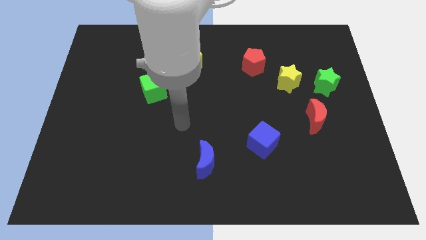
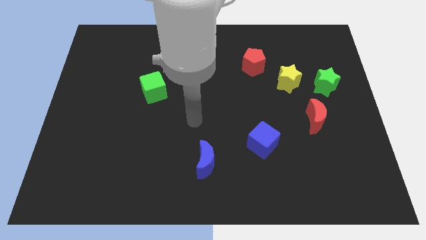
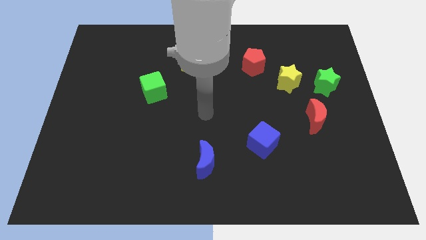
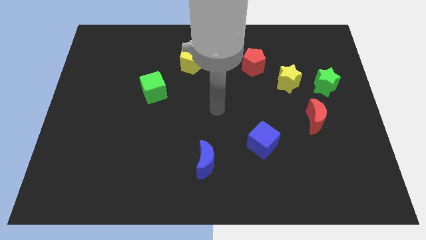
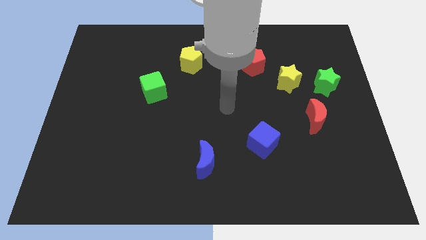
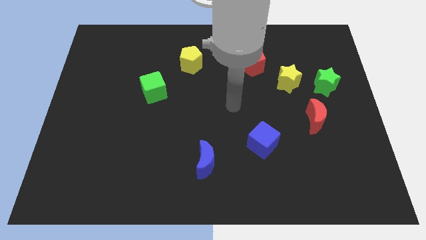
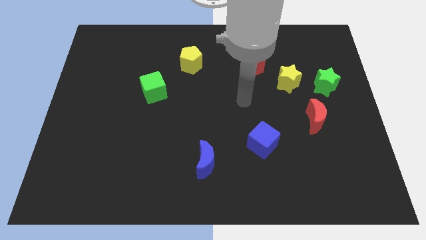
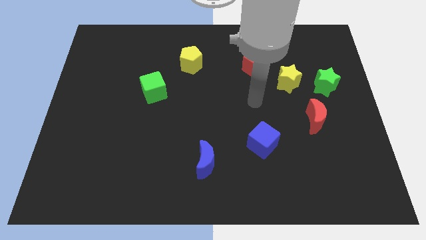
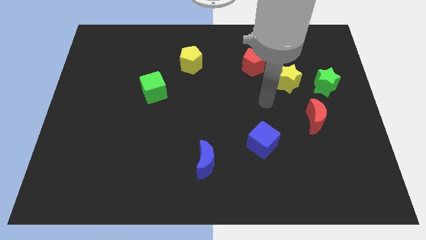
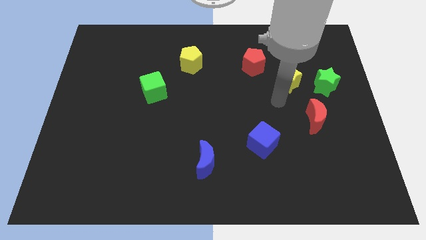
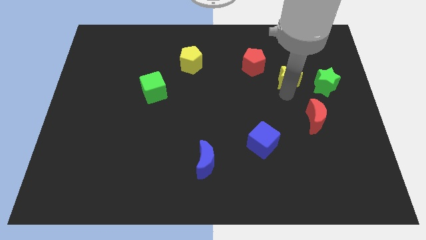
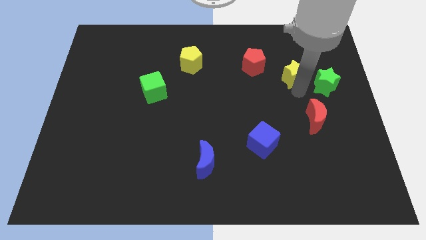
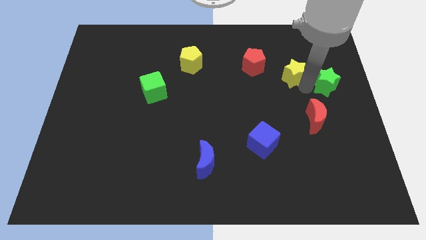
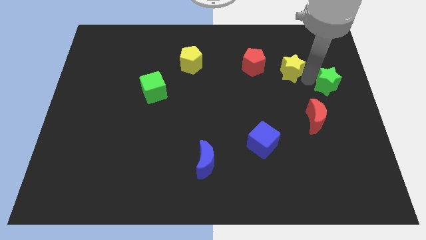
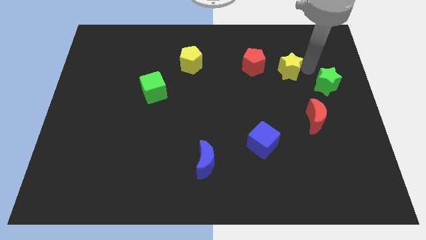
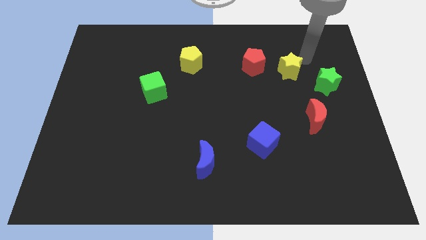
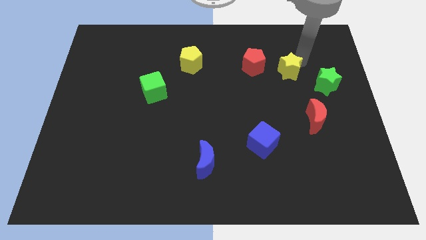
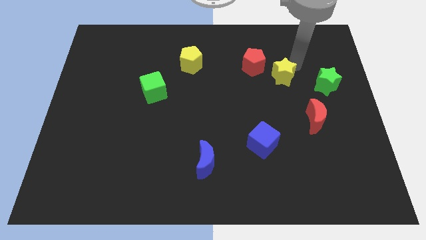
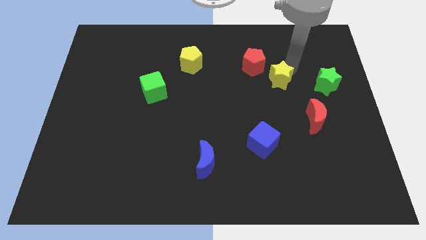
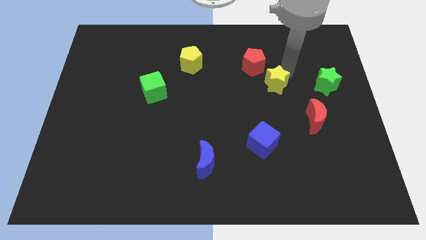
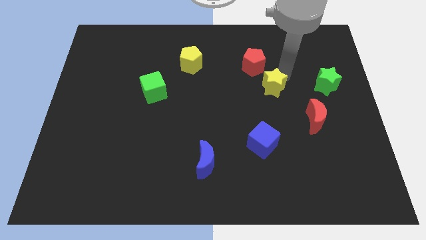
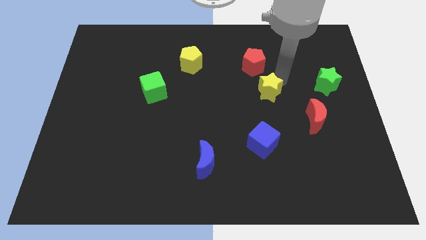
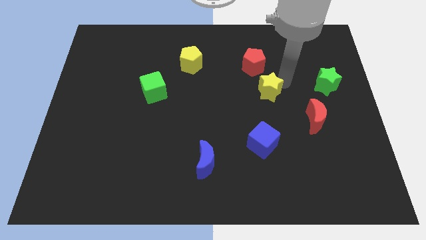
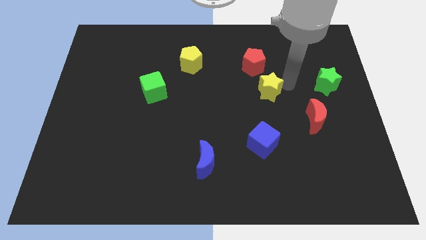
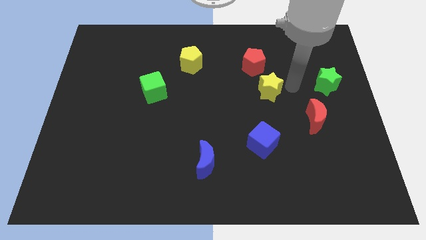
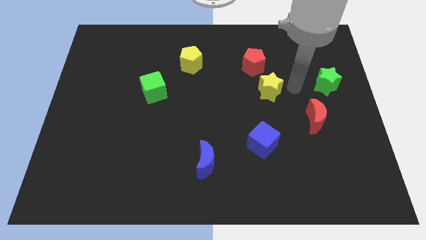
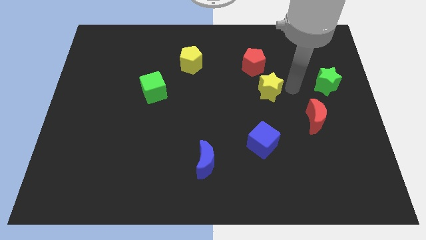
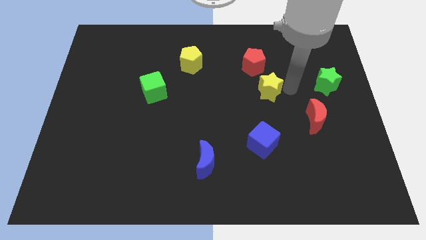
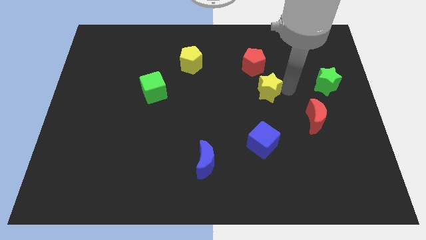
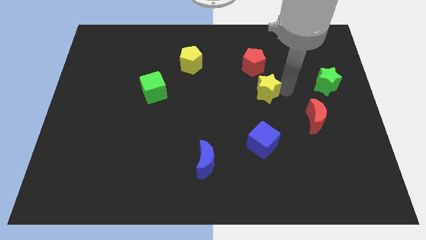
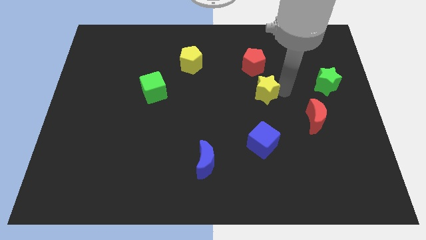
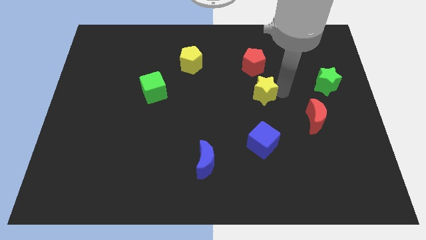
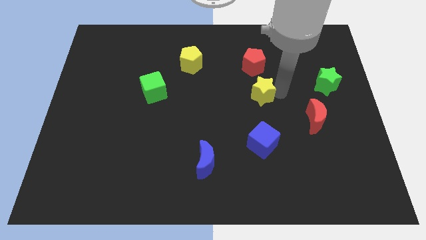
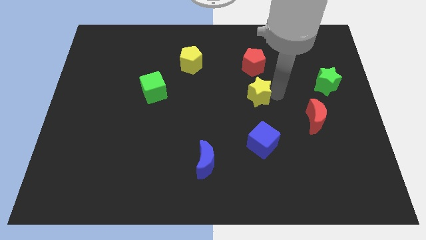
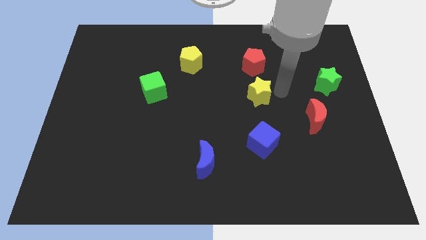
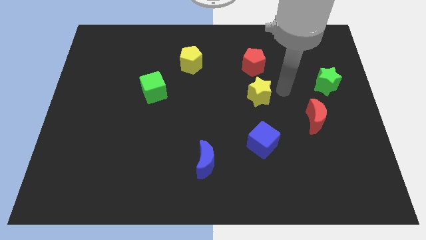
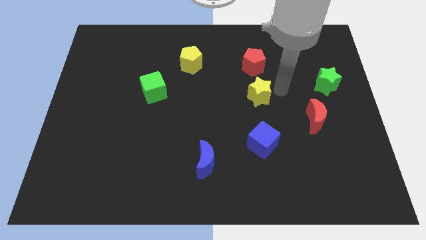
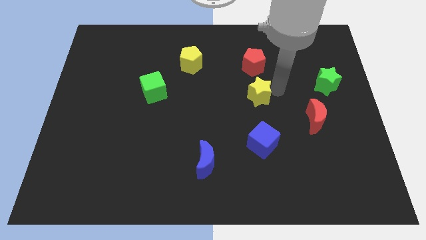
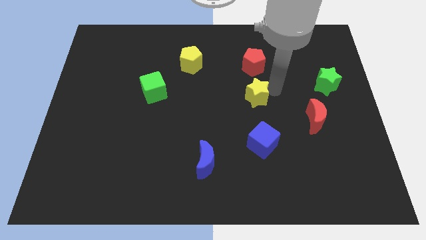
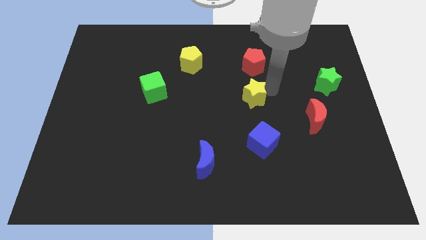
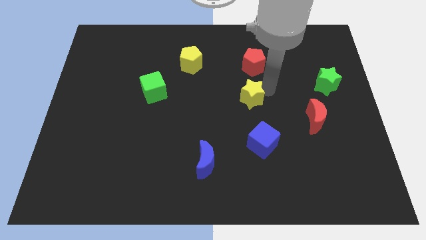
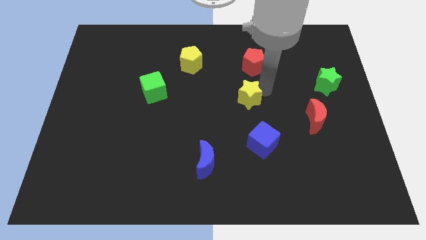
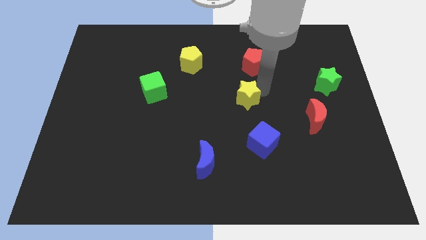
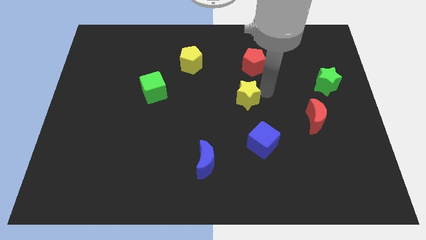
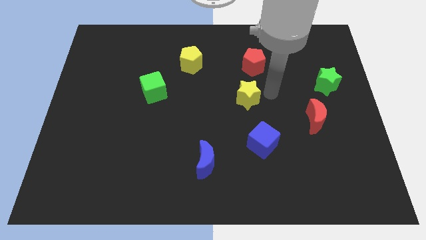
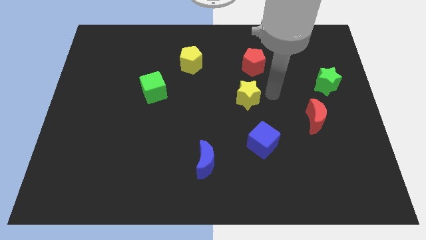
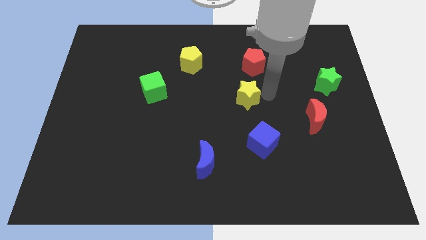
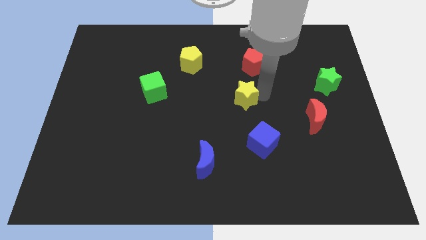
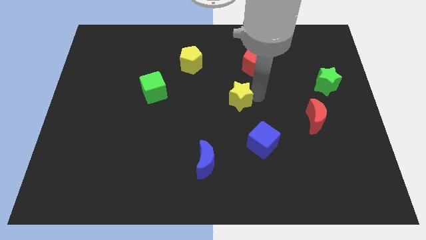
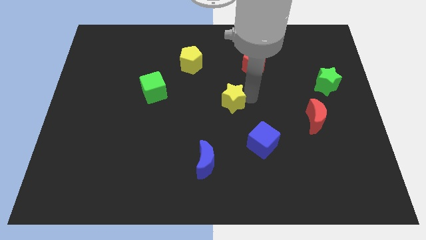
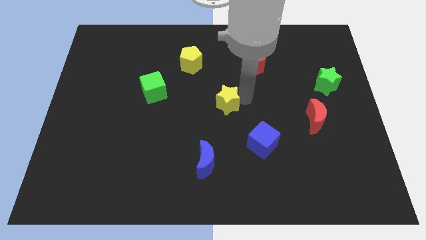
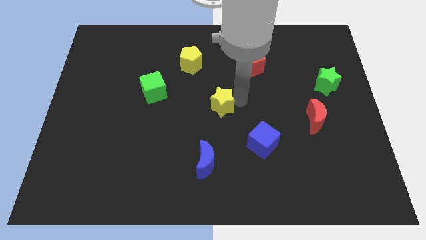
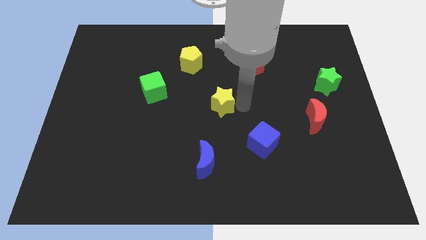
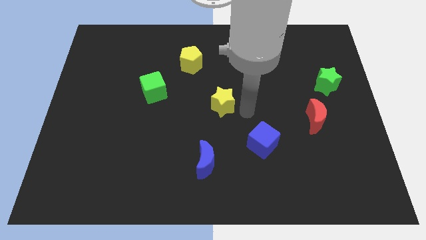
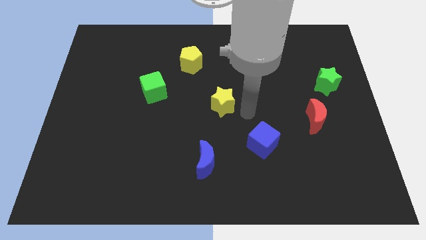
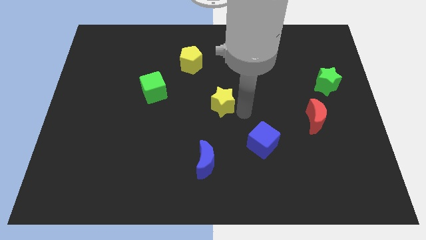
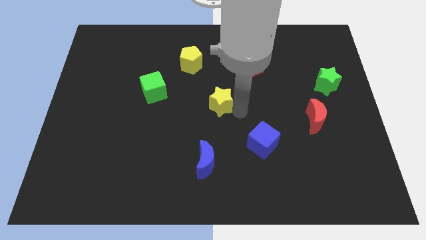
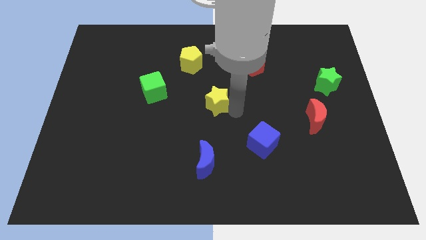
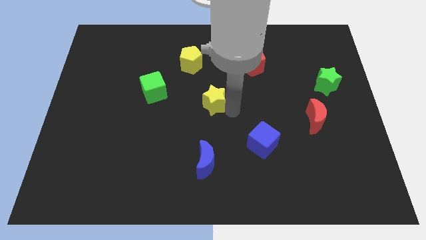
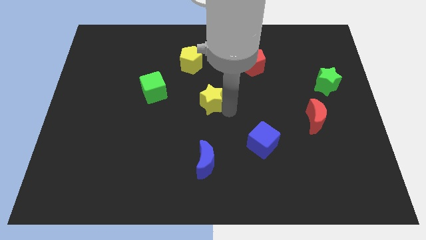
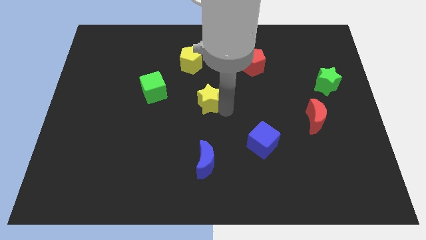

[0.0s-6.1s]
push the yellow star to the bottom of the yellow pentagon
